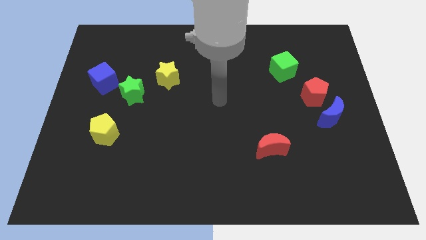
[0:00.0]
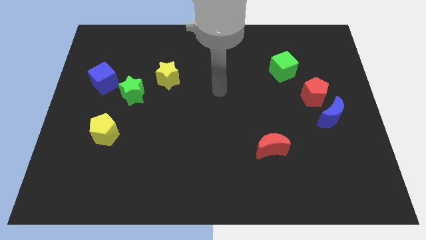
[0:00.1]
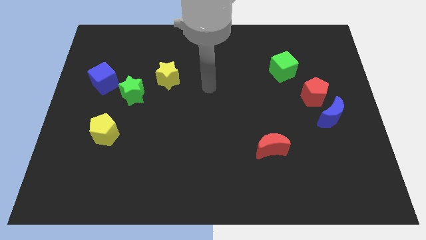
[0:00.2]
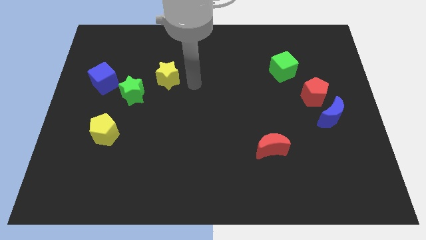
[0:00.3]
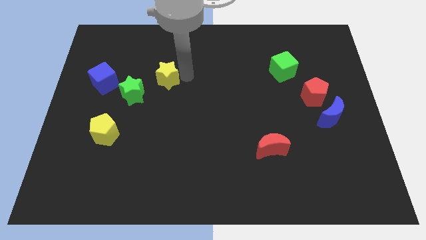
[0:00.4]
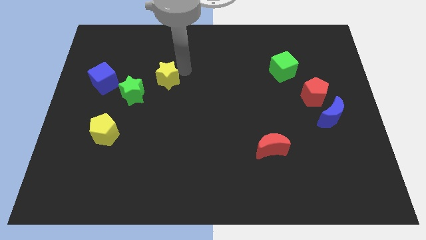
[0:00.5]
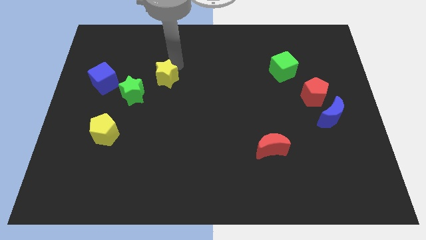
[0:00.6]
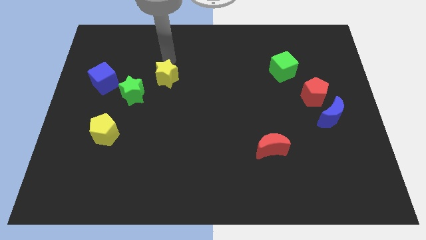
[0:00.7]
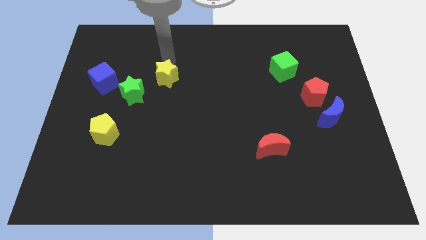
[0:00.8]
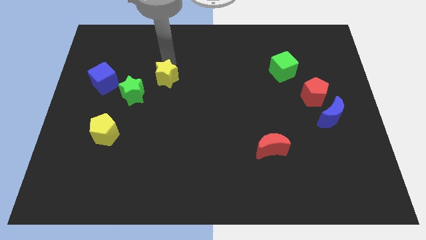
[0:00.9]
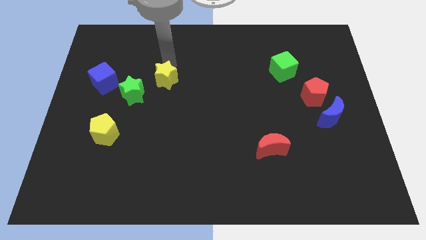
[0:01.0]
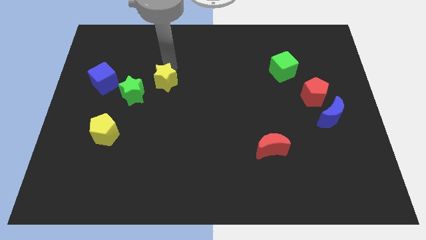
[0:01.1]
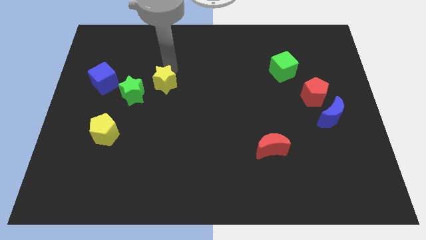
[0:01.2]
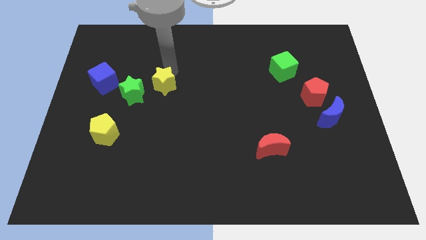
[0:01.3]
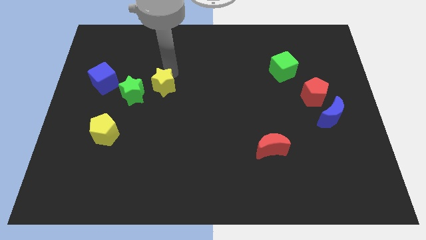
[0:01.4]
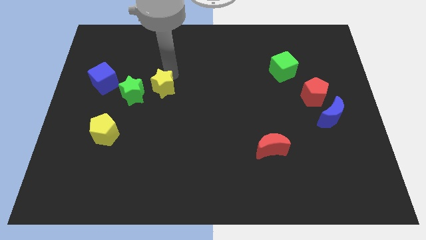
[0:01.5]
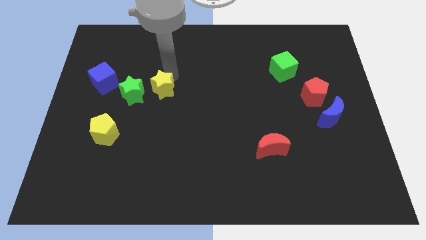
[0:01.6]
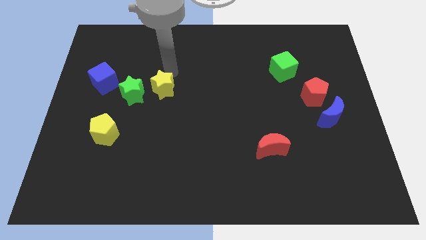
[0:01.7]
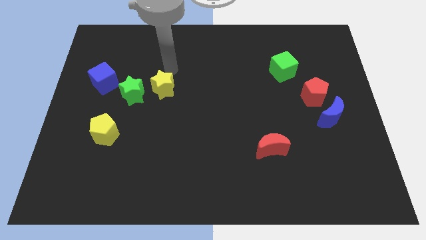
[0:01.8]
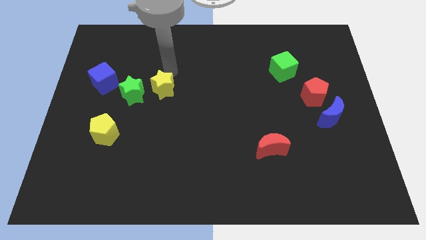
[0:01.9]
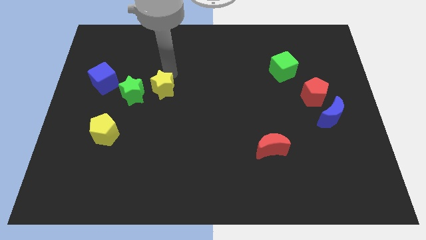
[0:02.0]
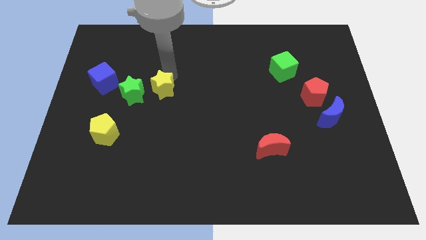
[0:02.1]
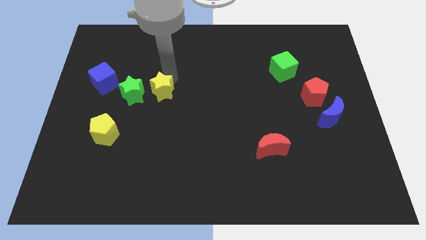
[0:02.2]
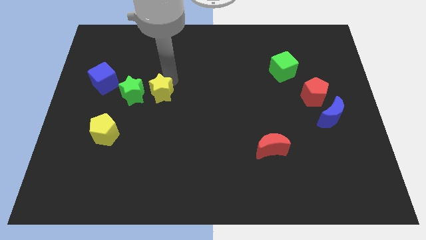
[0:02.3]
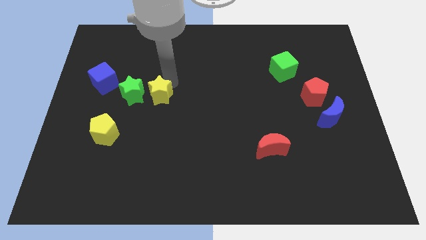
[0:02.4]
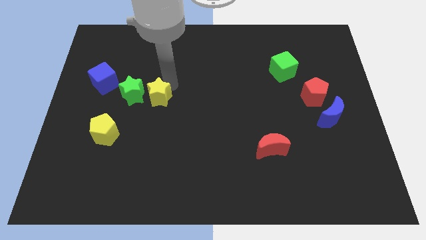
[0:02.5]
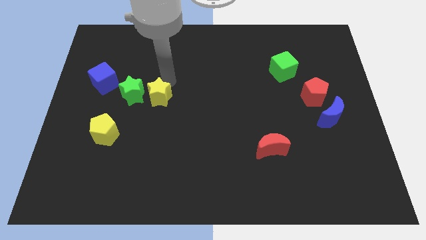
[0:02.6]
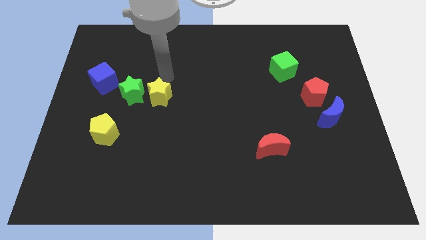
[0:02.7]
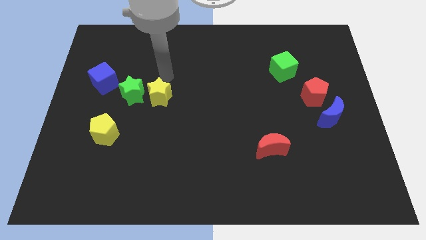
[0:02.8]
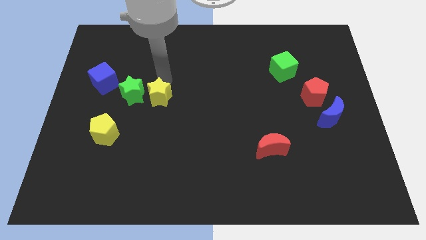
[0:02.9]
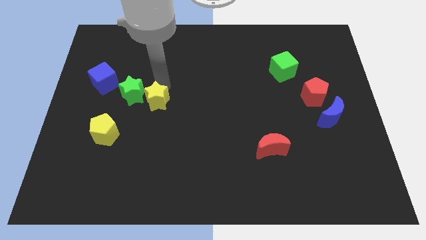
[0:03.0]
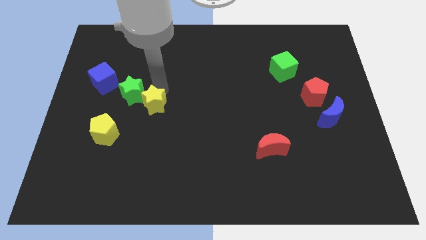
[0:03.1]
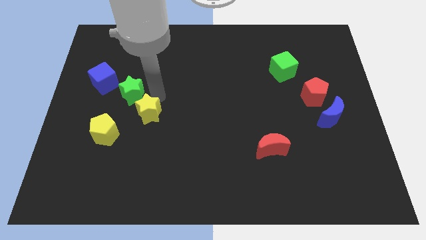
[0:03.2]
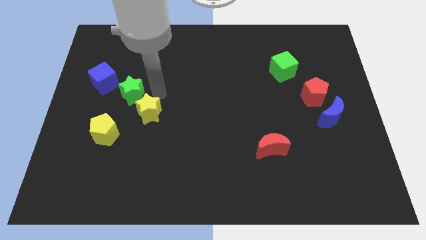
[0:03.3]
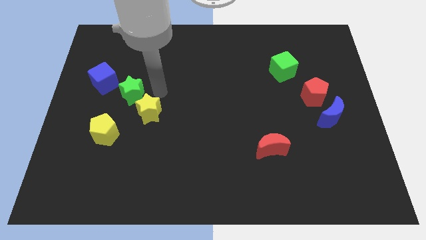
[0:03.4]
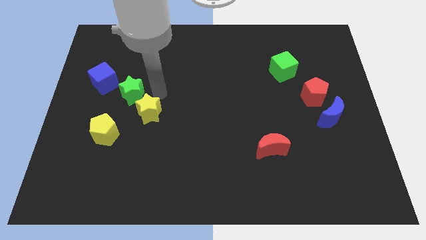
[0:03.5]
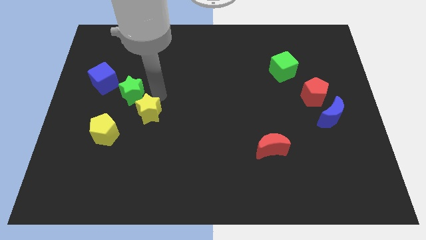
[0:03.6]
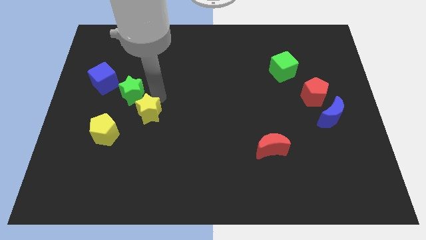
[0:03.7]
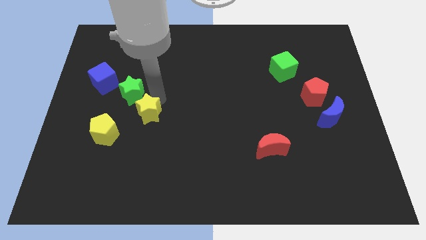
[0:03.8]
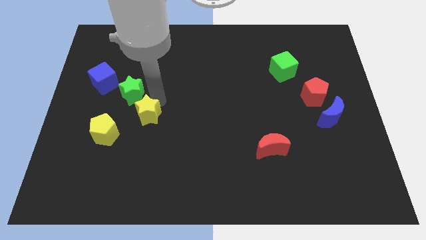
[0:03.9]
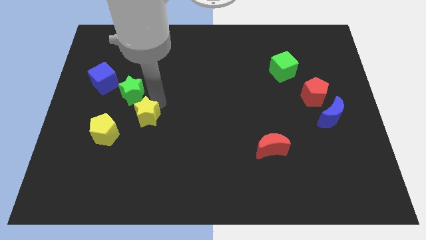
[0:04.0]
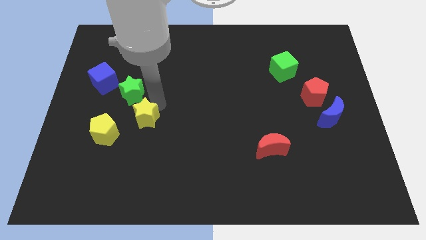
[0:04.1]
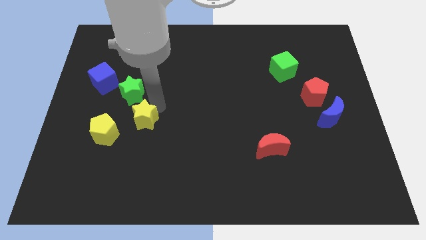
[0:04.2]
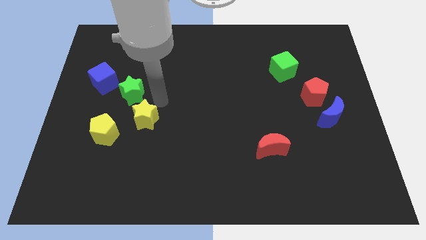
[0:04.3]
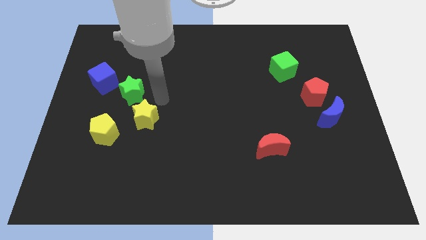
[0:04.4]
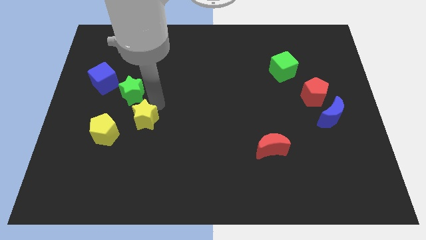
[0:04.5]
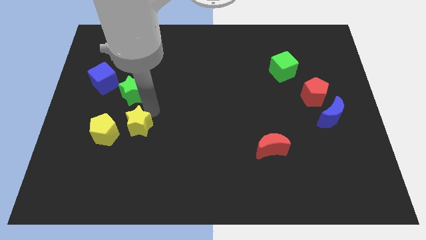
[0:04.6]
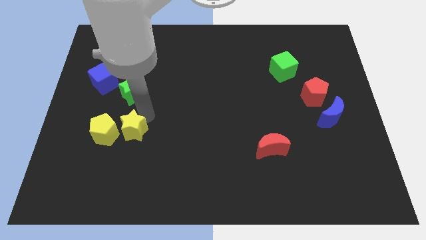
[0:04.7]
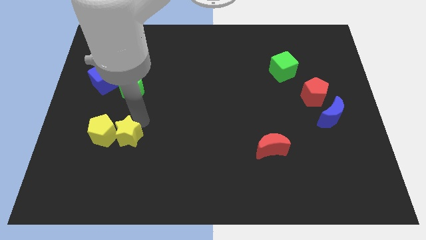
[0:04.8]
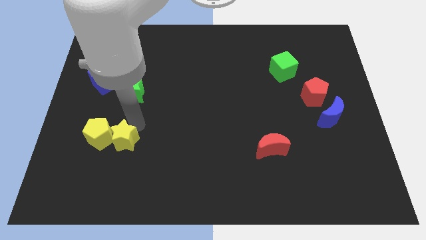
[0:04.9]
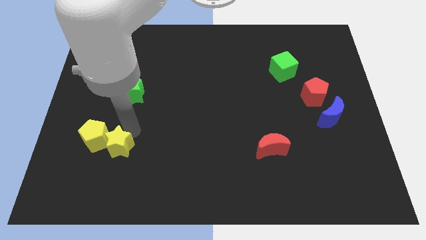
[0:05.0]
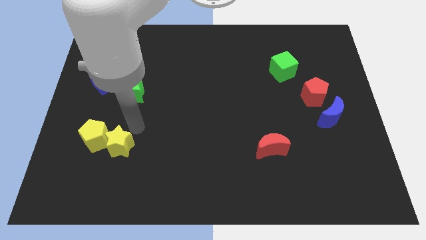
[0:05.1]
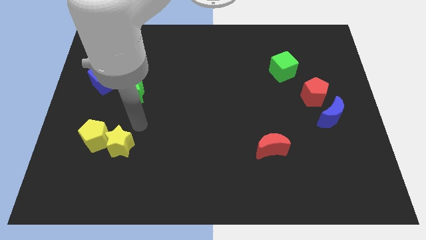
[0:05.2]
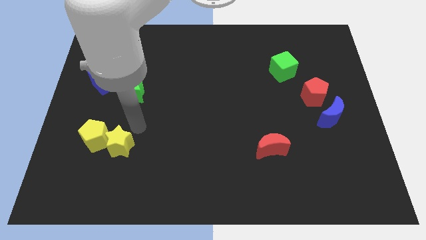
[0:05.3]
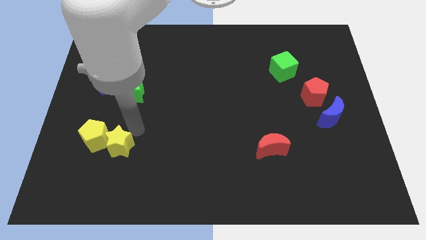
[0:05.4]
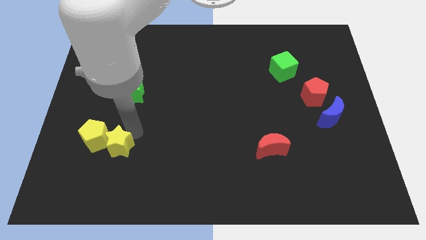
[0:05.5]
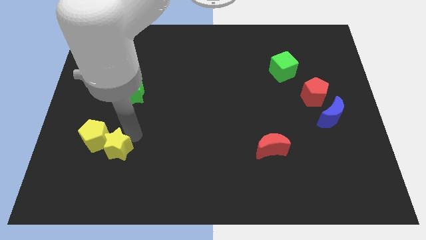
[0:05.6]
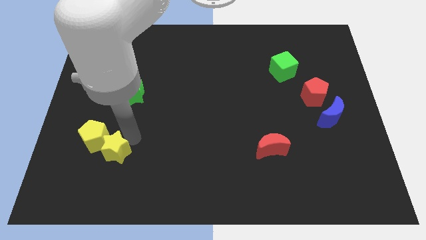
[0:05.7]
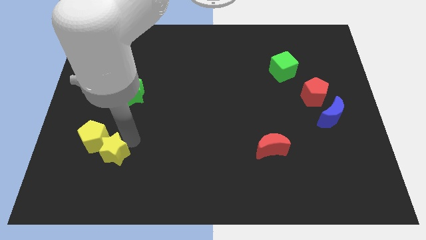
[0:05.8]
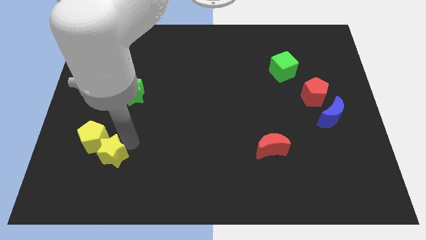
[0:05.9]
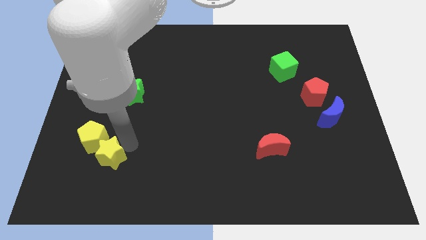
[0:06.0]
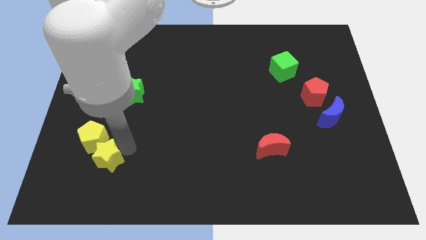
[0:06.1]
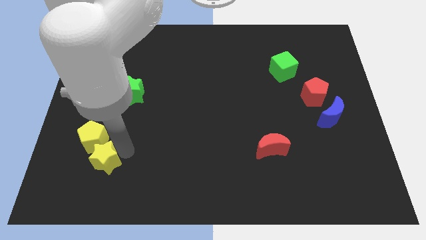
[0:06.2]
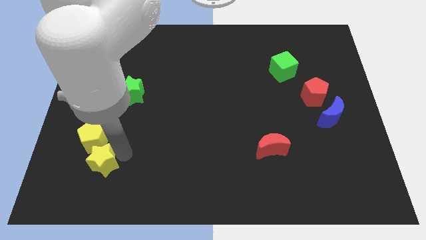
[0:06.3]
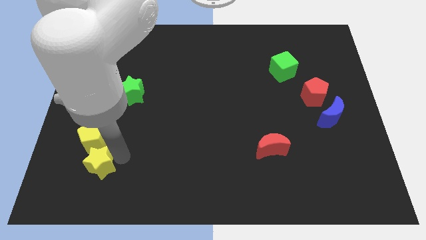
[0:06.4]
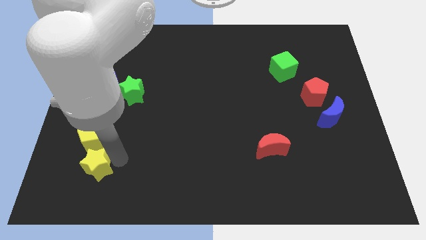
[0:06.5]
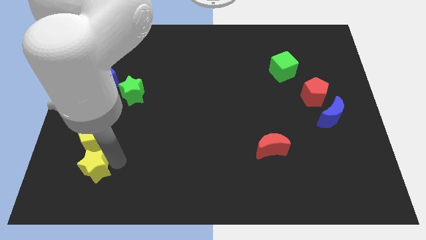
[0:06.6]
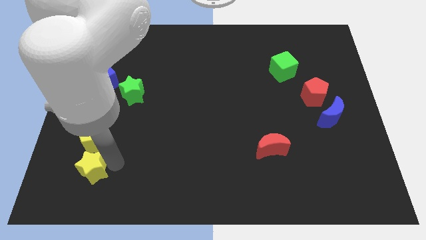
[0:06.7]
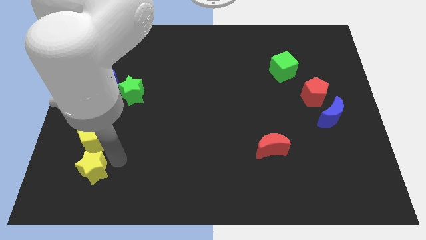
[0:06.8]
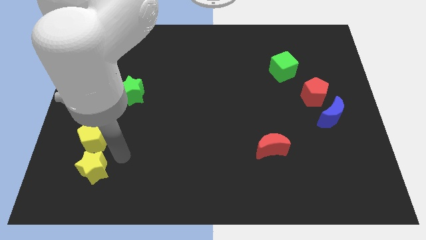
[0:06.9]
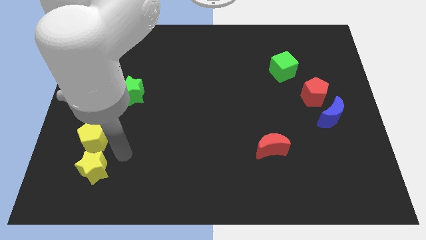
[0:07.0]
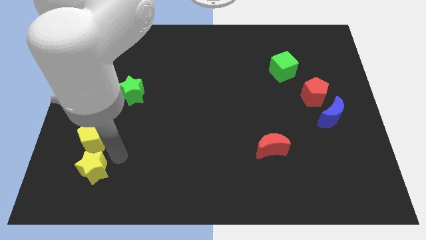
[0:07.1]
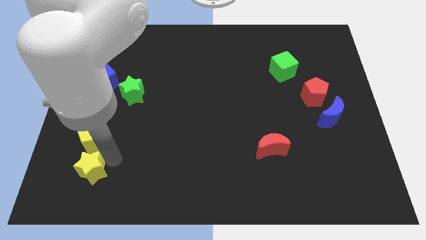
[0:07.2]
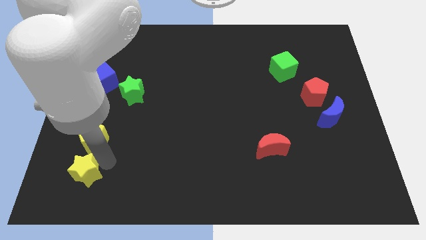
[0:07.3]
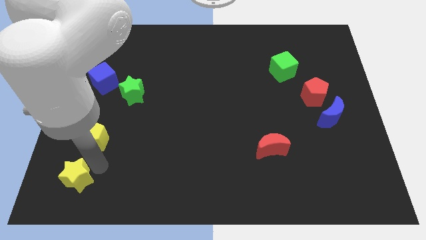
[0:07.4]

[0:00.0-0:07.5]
move the yellow star to the bottom left
